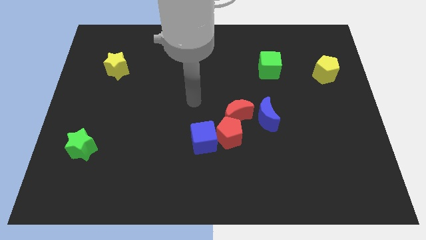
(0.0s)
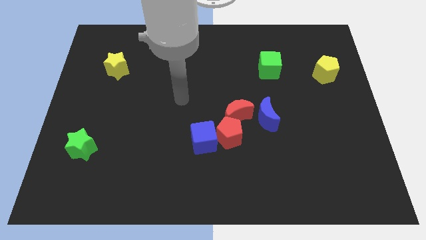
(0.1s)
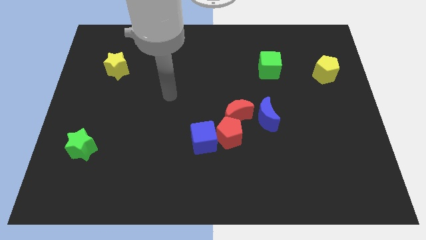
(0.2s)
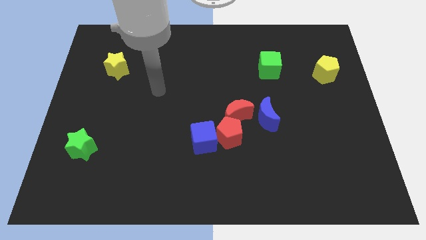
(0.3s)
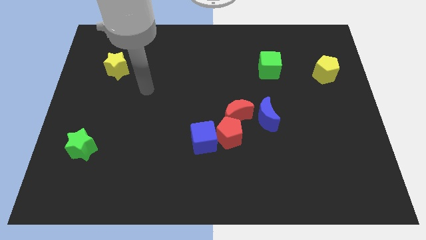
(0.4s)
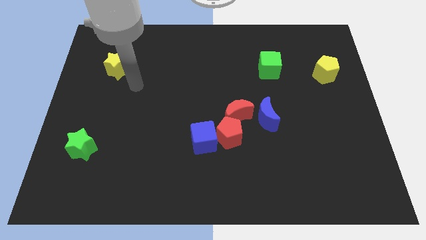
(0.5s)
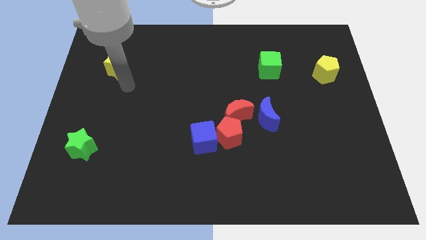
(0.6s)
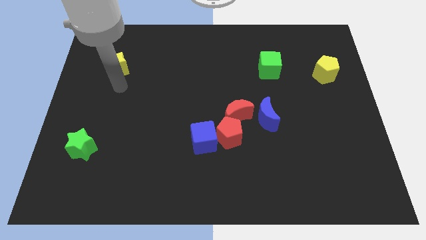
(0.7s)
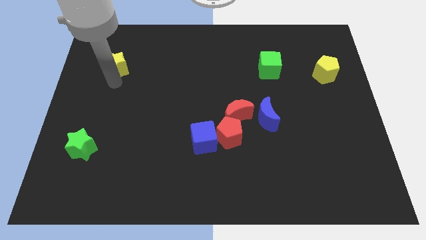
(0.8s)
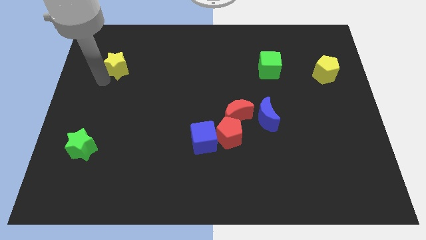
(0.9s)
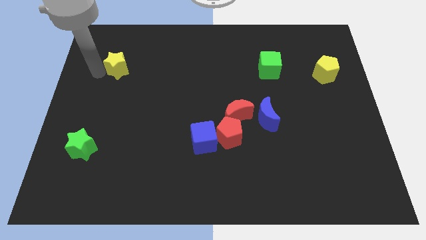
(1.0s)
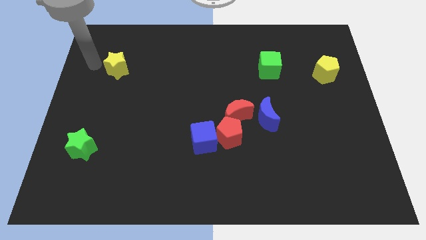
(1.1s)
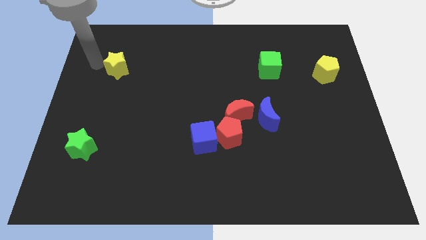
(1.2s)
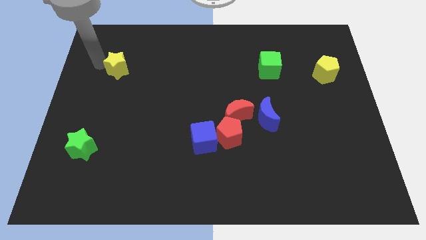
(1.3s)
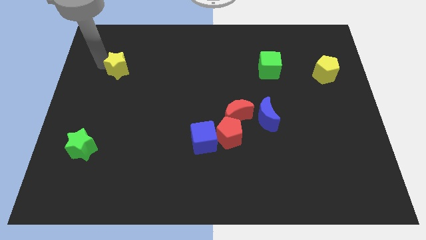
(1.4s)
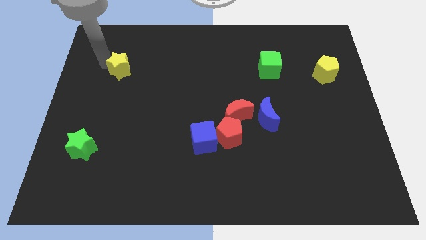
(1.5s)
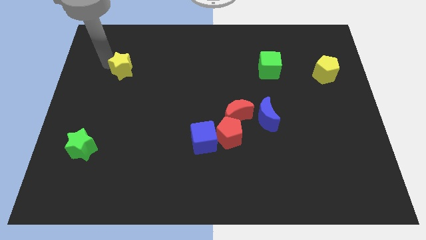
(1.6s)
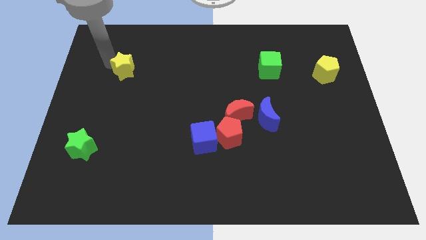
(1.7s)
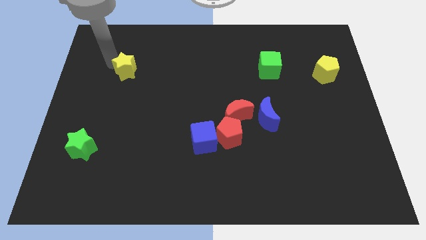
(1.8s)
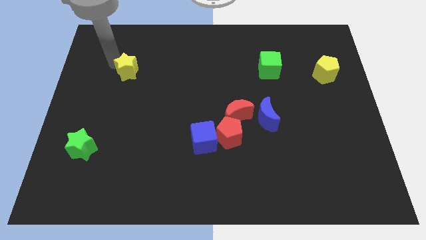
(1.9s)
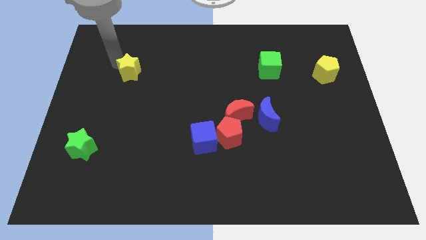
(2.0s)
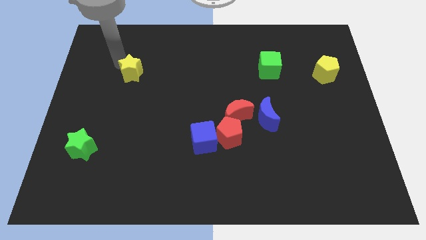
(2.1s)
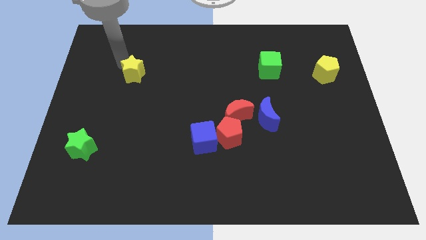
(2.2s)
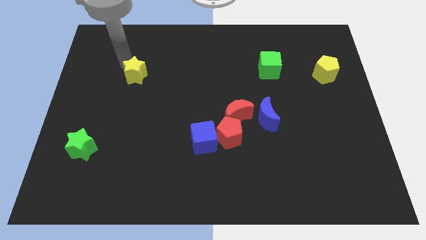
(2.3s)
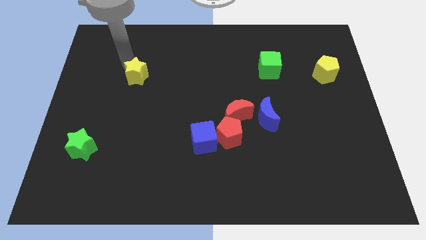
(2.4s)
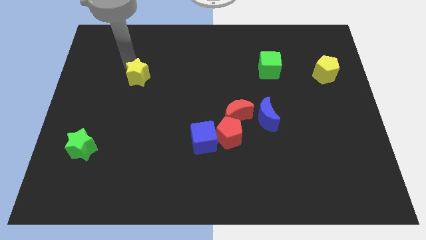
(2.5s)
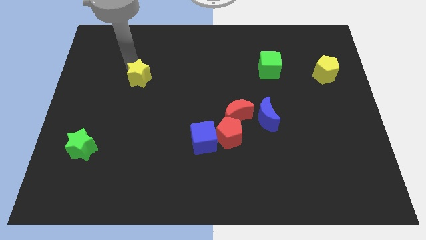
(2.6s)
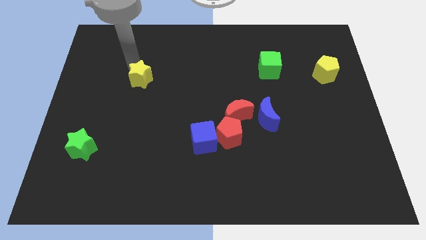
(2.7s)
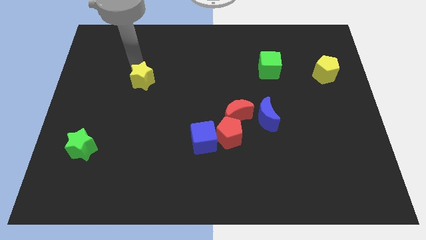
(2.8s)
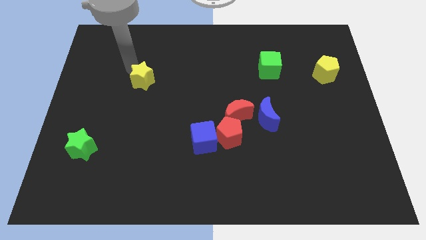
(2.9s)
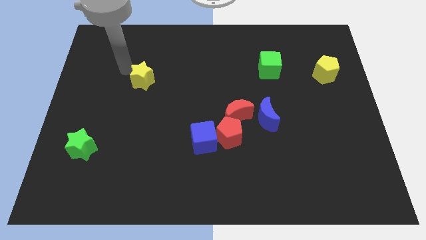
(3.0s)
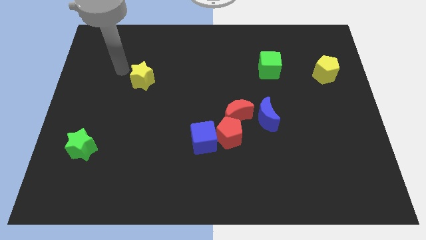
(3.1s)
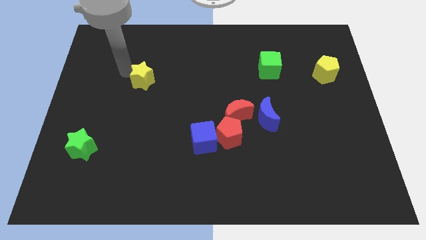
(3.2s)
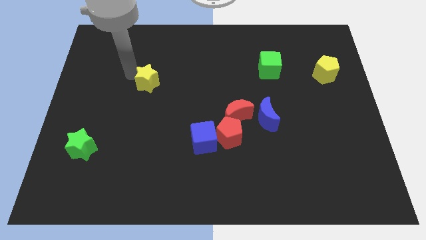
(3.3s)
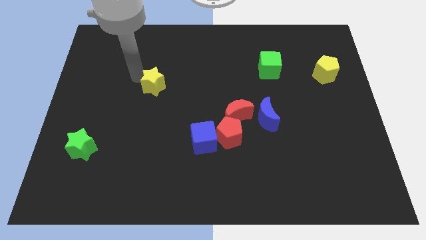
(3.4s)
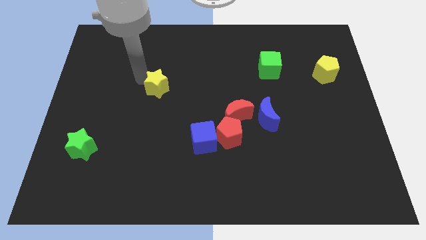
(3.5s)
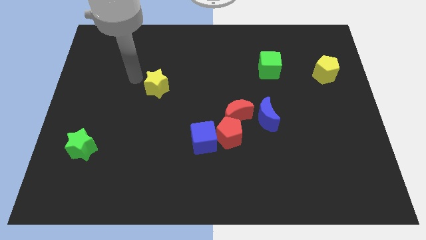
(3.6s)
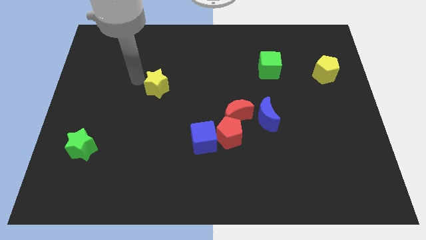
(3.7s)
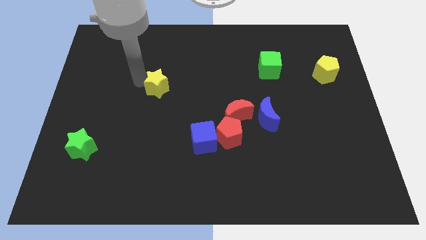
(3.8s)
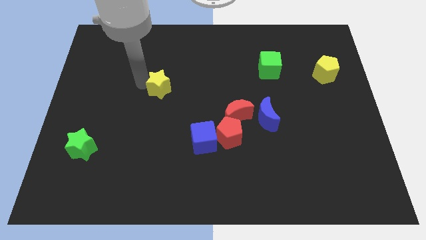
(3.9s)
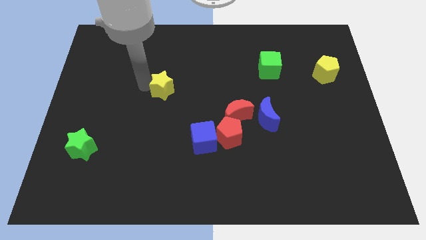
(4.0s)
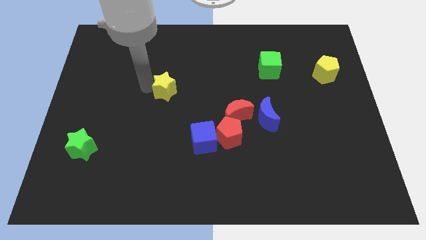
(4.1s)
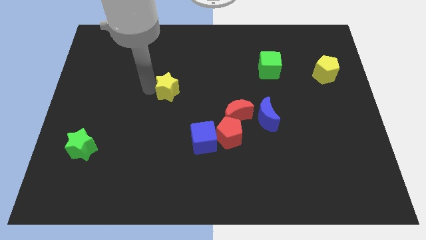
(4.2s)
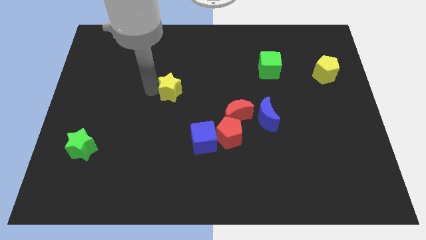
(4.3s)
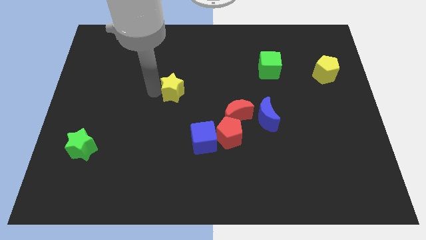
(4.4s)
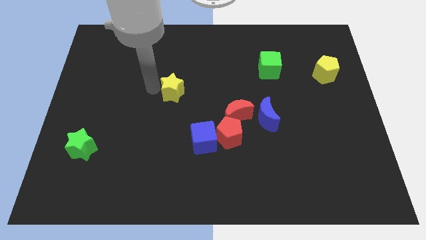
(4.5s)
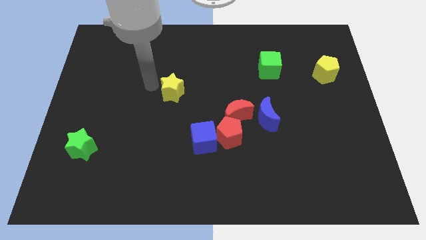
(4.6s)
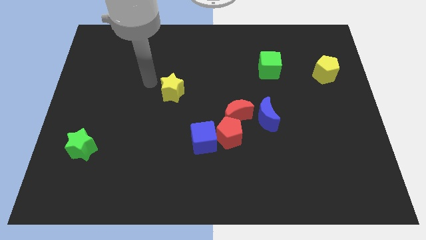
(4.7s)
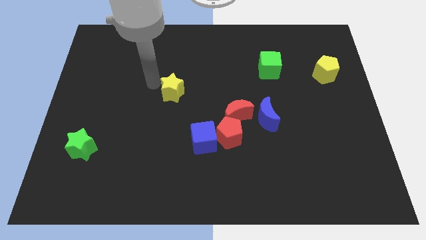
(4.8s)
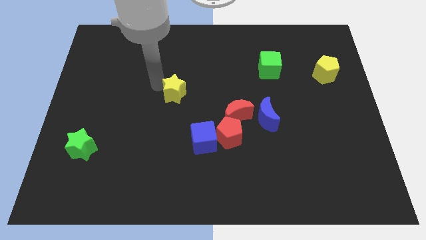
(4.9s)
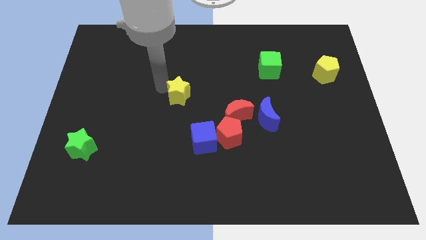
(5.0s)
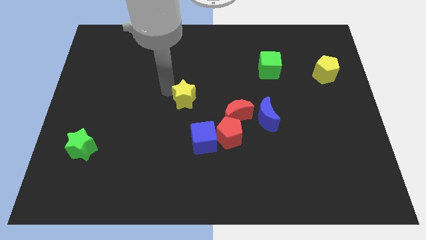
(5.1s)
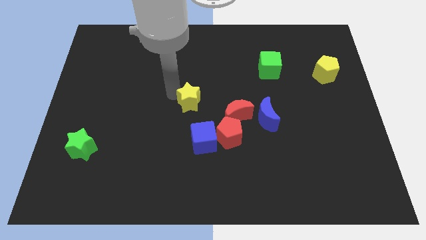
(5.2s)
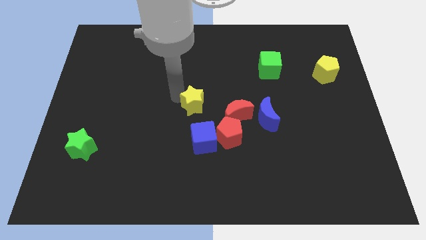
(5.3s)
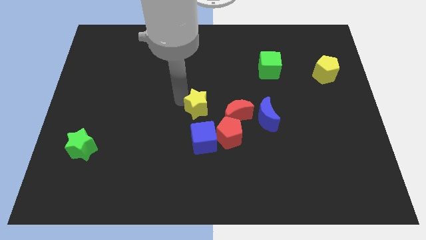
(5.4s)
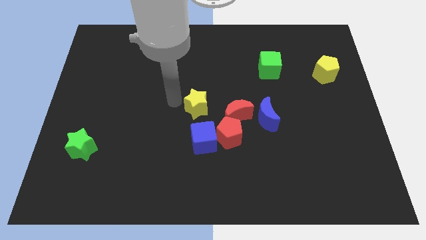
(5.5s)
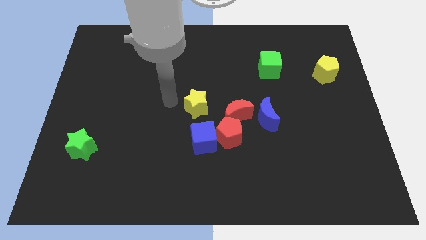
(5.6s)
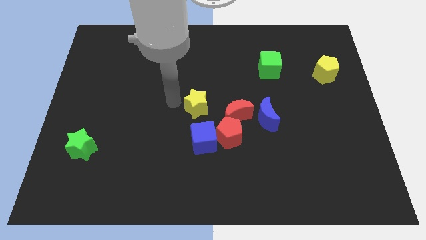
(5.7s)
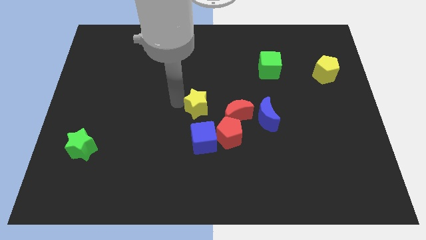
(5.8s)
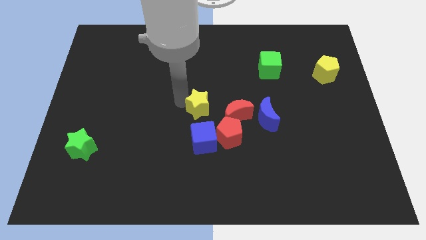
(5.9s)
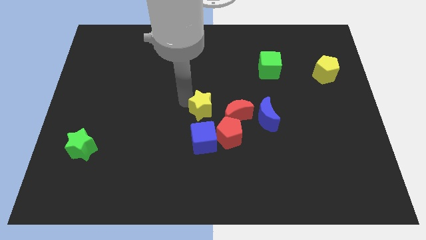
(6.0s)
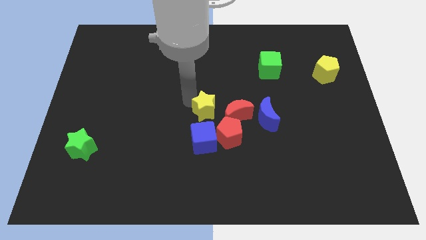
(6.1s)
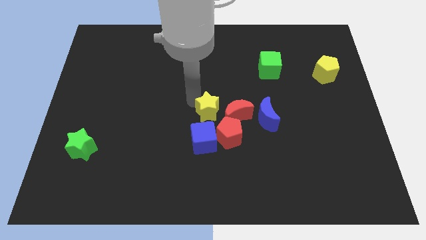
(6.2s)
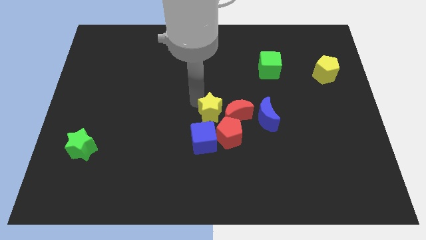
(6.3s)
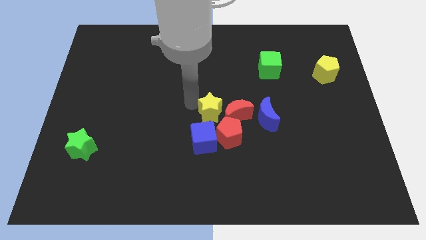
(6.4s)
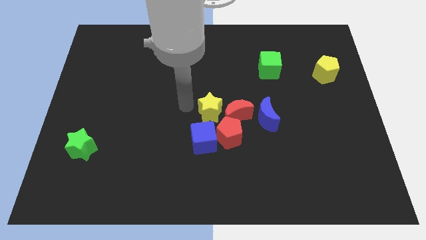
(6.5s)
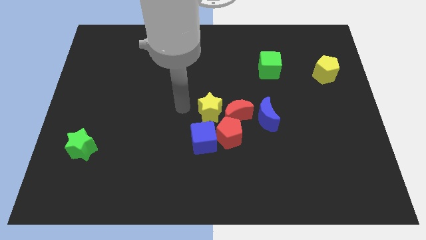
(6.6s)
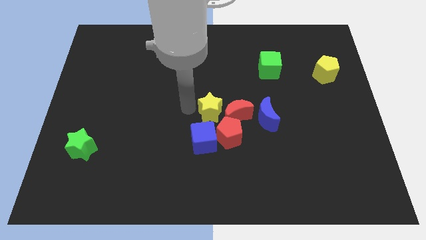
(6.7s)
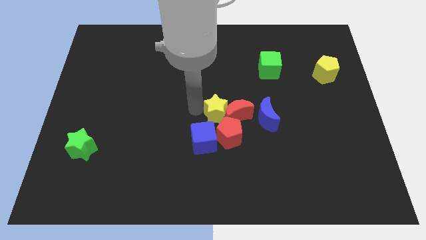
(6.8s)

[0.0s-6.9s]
move the yellow star towards the red moon
